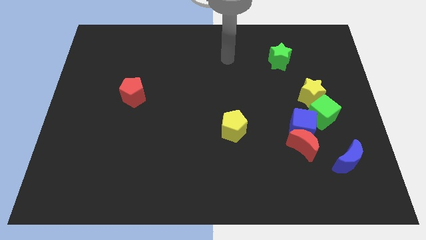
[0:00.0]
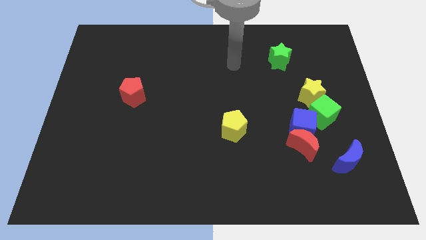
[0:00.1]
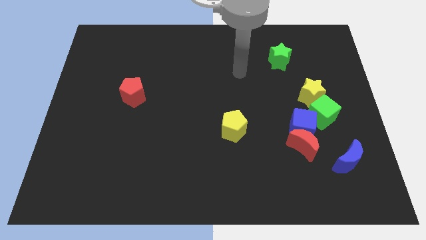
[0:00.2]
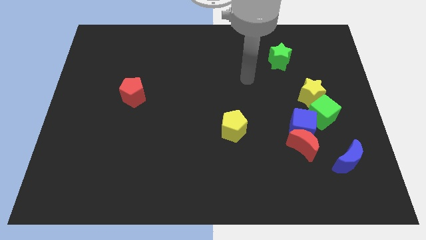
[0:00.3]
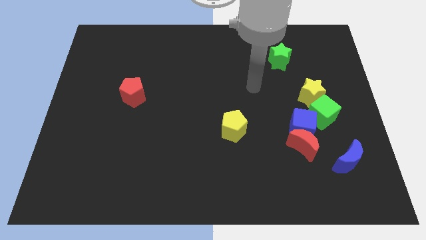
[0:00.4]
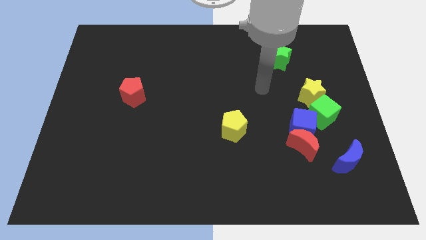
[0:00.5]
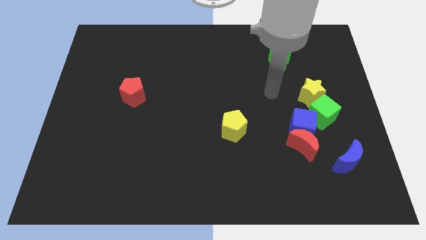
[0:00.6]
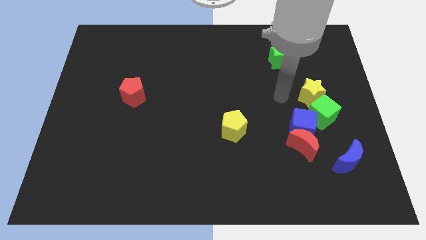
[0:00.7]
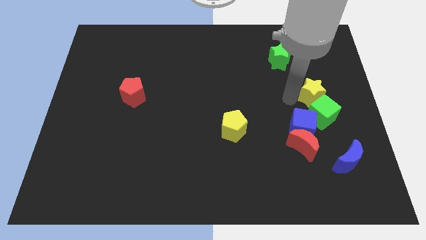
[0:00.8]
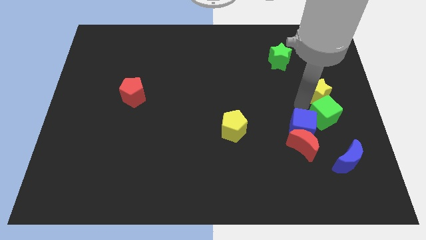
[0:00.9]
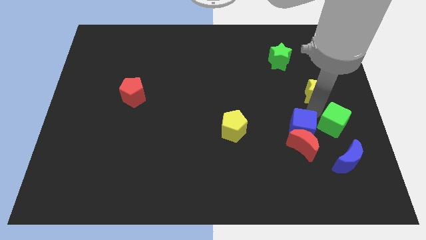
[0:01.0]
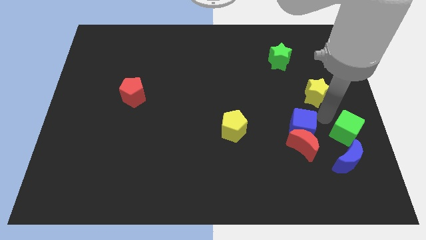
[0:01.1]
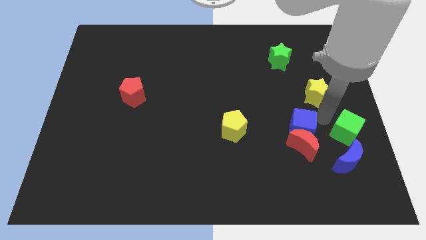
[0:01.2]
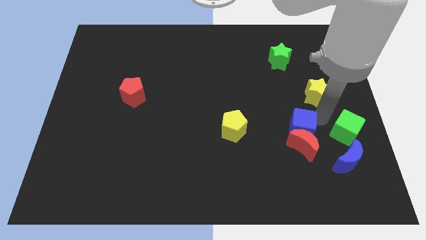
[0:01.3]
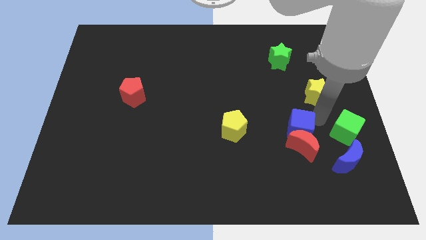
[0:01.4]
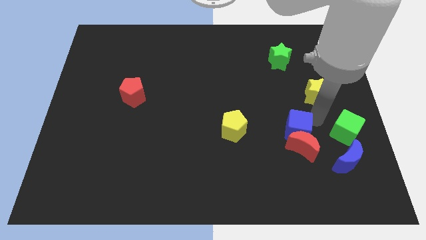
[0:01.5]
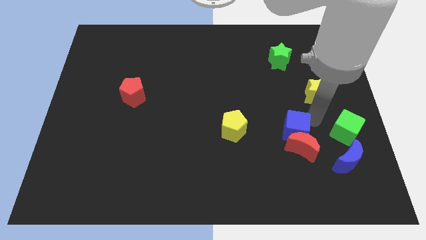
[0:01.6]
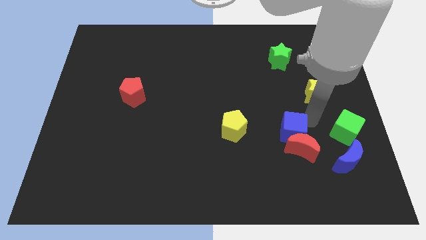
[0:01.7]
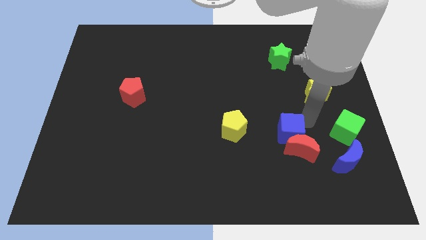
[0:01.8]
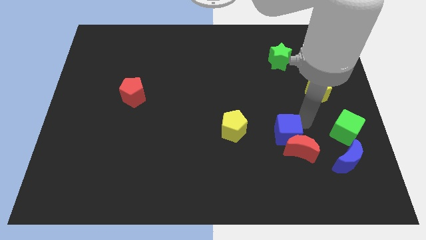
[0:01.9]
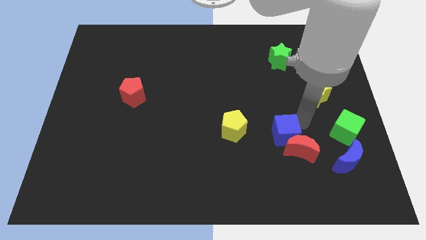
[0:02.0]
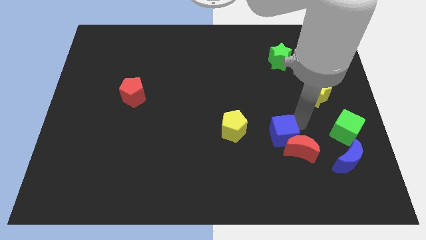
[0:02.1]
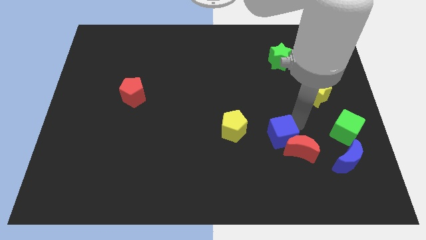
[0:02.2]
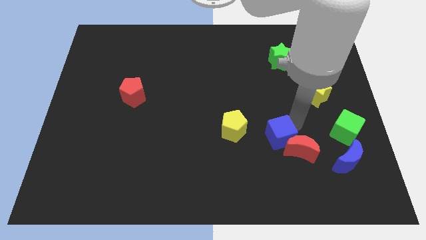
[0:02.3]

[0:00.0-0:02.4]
pull the blue cube apart from the group

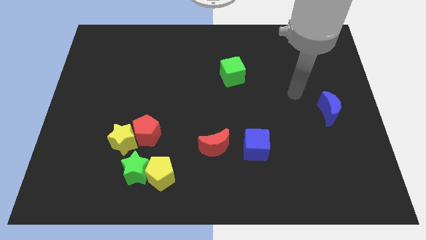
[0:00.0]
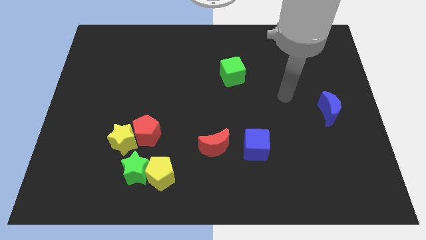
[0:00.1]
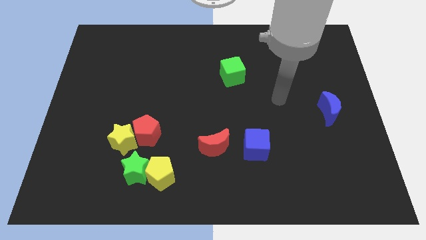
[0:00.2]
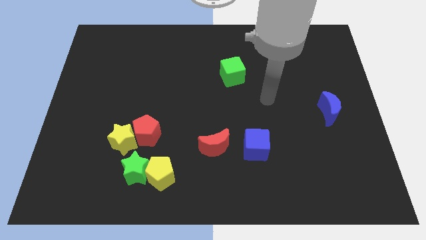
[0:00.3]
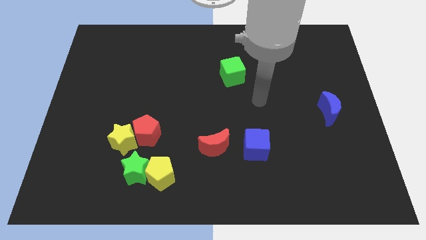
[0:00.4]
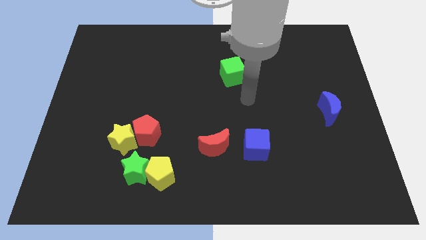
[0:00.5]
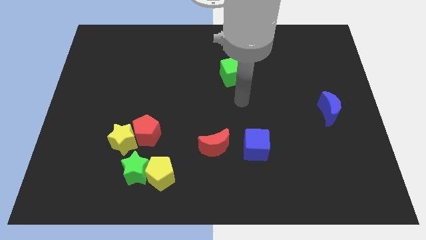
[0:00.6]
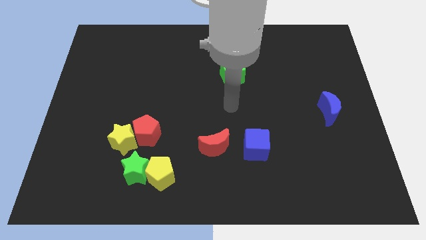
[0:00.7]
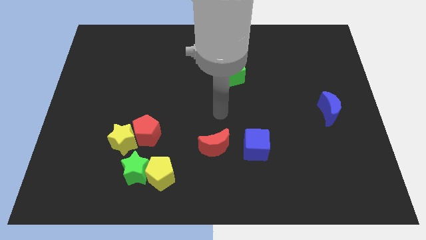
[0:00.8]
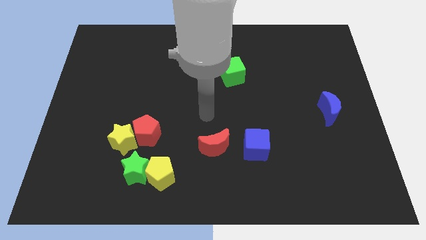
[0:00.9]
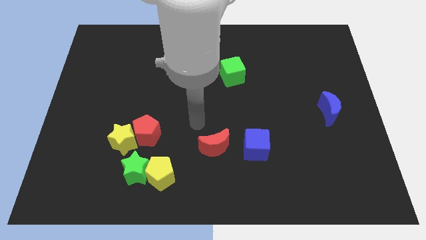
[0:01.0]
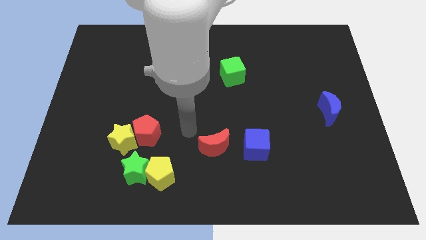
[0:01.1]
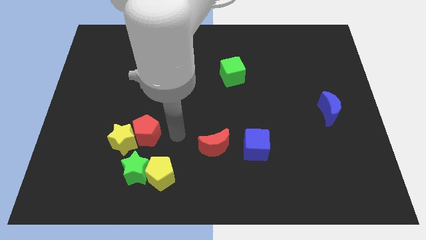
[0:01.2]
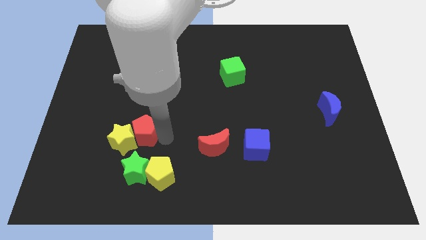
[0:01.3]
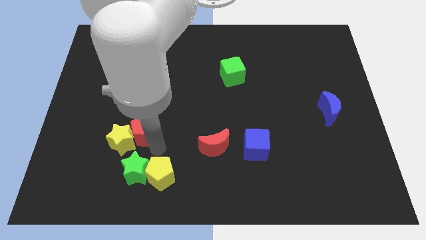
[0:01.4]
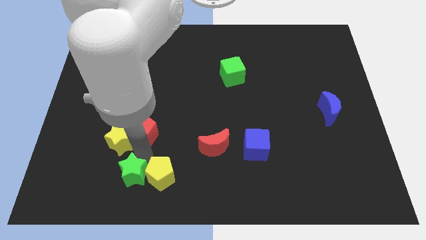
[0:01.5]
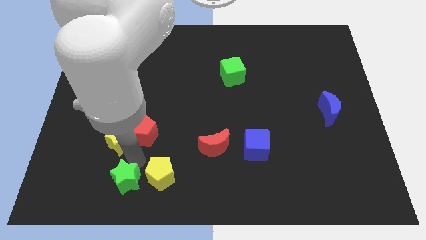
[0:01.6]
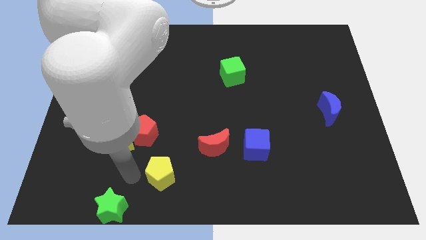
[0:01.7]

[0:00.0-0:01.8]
pull the yellow pentagon apart from the green star

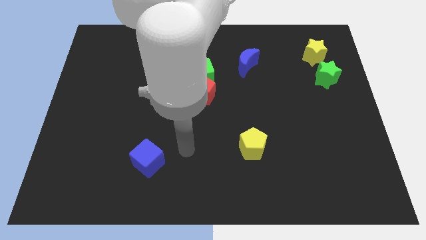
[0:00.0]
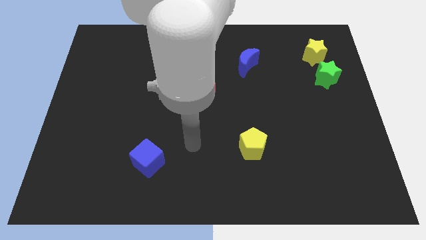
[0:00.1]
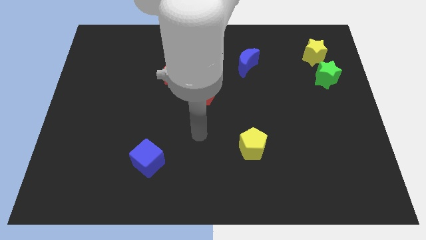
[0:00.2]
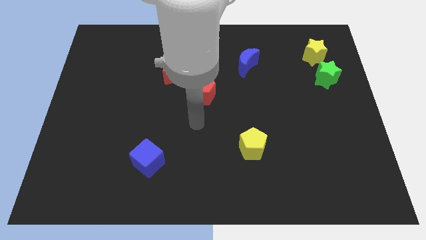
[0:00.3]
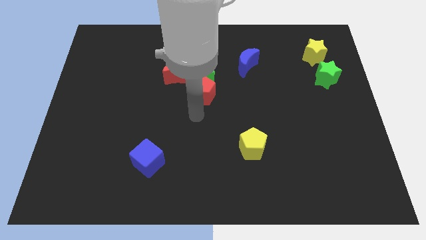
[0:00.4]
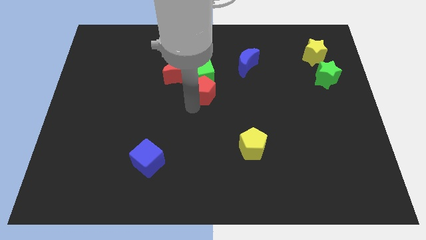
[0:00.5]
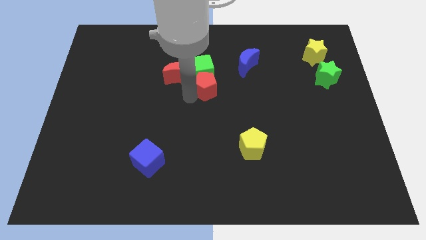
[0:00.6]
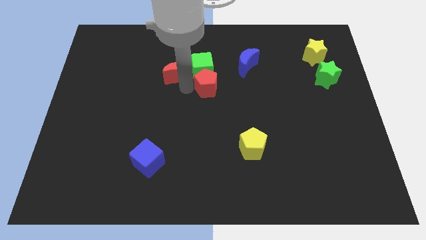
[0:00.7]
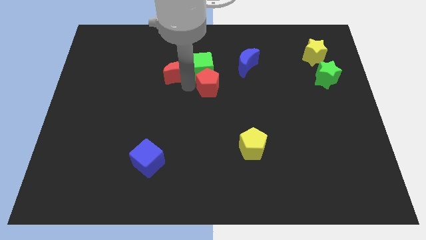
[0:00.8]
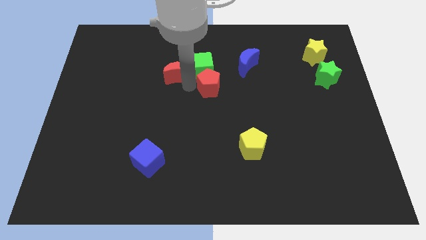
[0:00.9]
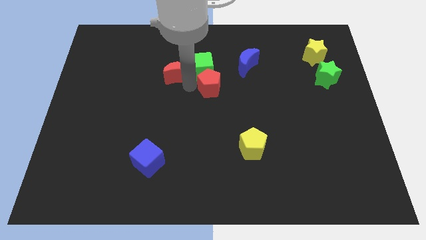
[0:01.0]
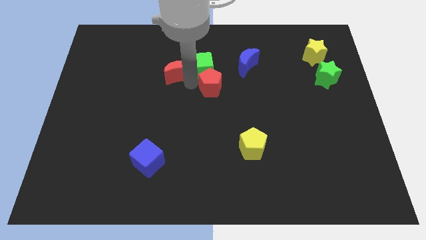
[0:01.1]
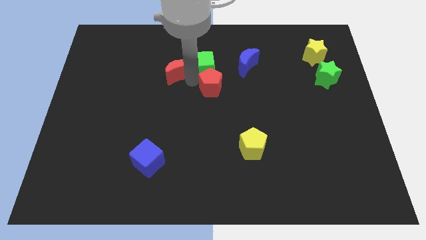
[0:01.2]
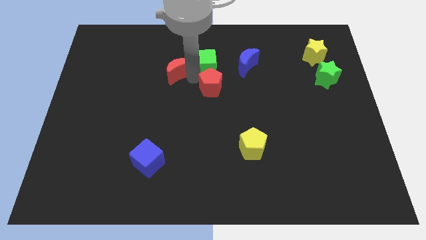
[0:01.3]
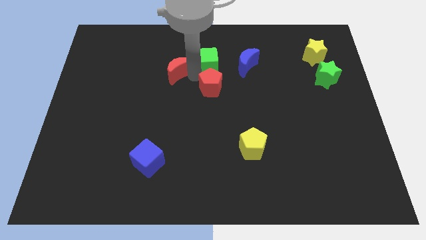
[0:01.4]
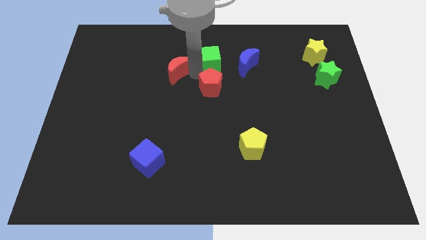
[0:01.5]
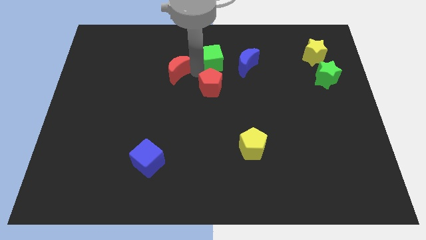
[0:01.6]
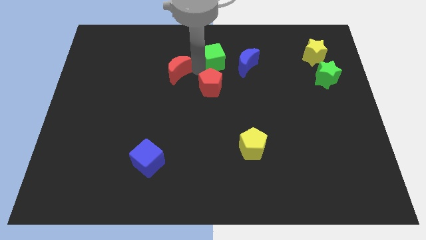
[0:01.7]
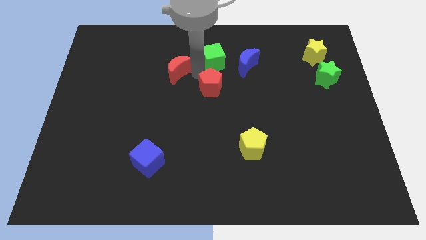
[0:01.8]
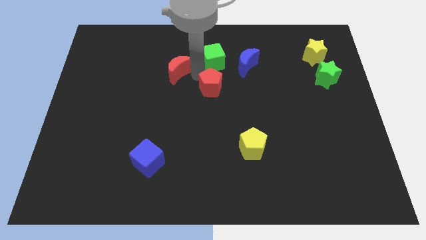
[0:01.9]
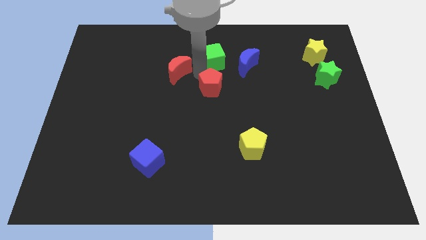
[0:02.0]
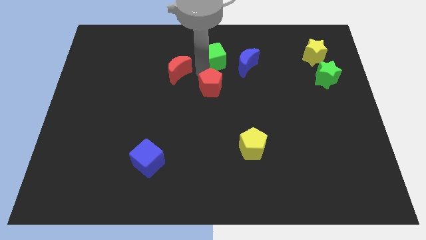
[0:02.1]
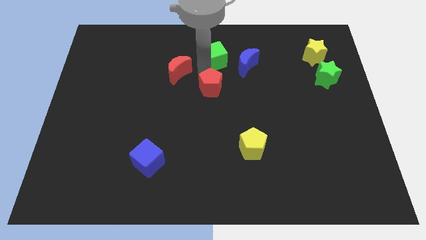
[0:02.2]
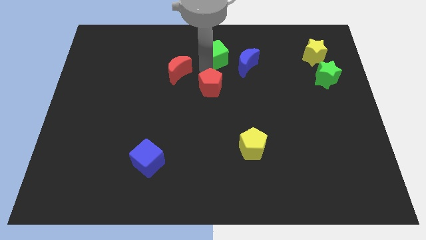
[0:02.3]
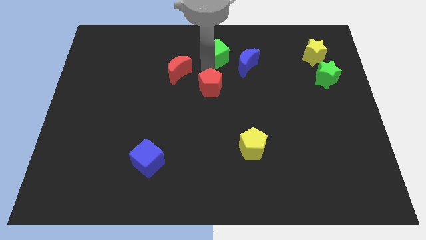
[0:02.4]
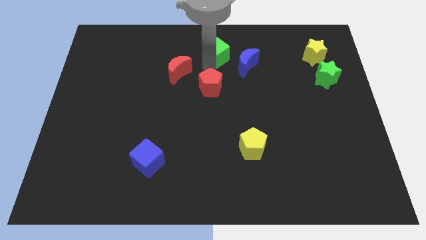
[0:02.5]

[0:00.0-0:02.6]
pull the green cube apart from the red pentagon and red moon

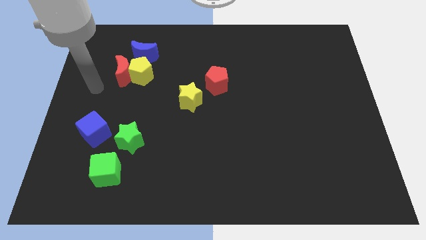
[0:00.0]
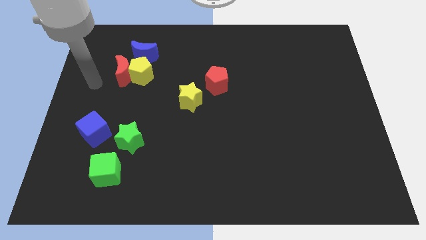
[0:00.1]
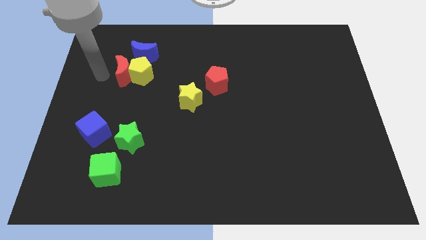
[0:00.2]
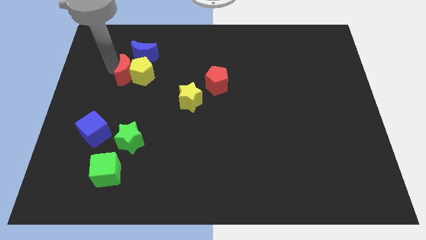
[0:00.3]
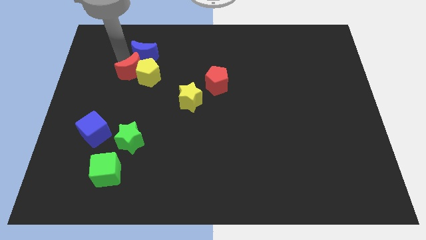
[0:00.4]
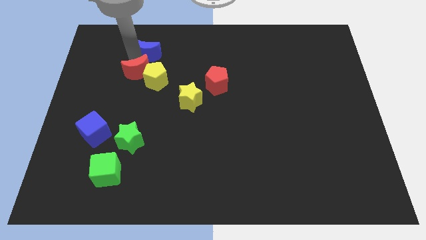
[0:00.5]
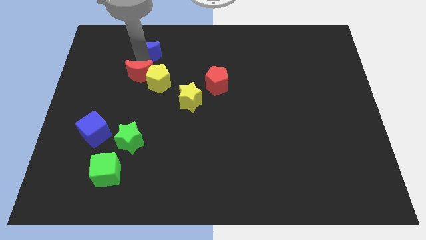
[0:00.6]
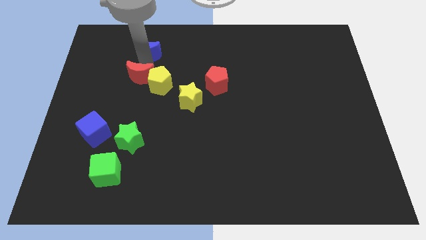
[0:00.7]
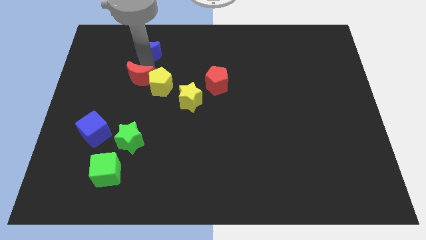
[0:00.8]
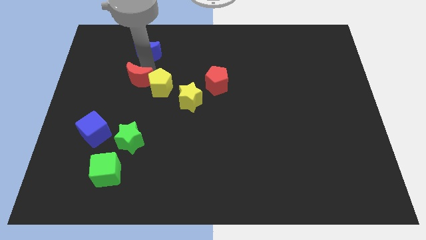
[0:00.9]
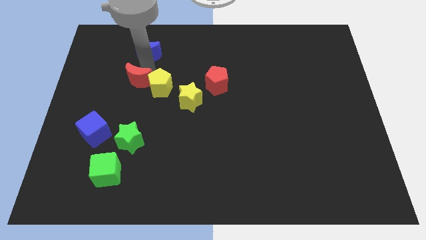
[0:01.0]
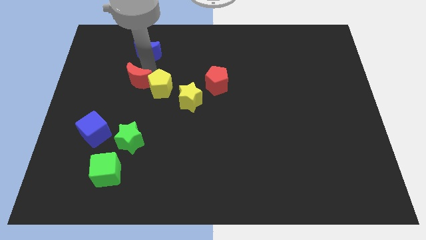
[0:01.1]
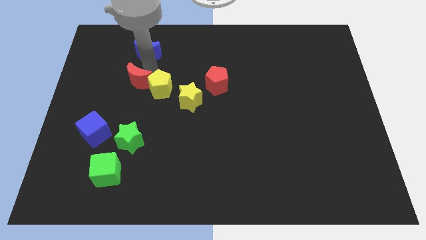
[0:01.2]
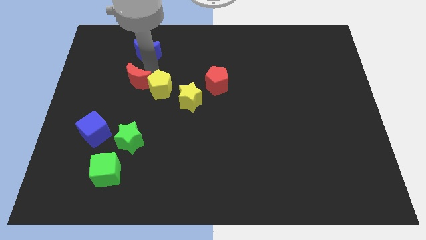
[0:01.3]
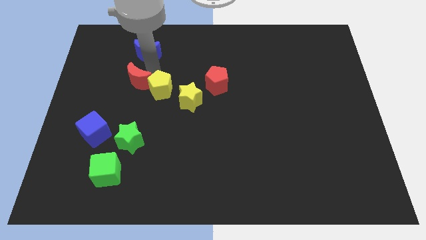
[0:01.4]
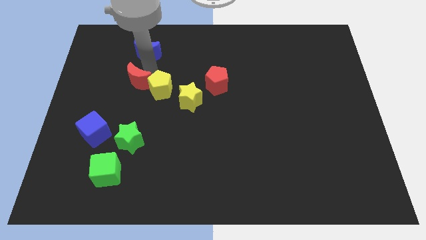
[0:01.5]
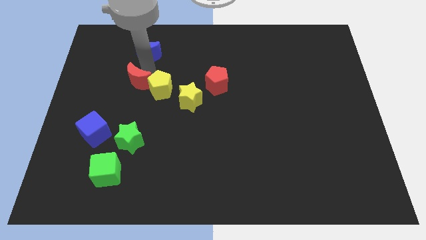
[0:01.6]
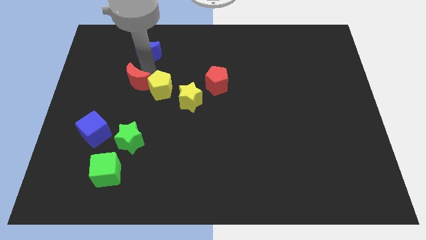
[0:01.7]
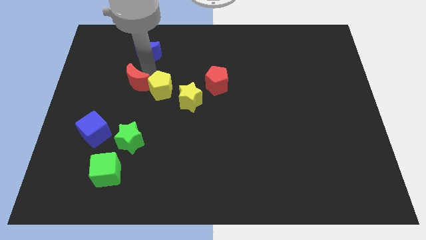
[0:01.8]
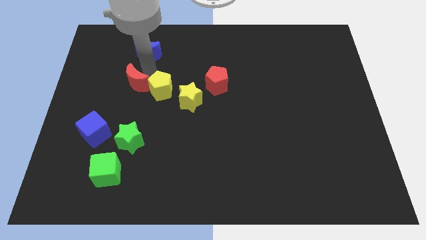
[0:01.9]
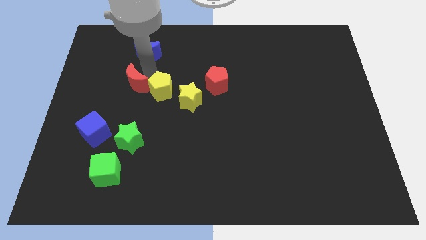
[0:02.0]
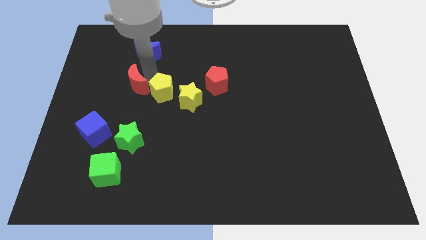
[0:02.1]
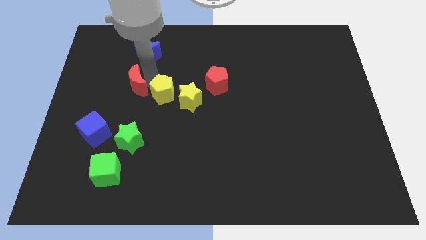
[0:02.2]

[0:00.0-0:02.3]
pull the yellow pentagon apart from the red moon and blue moon

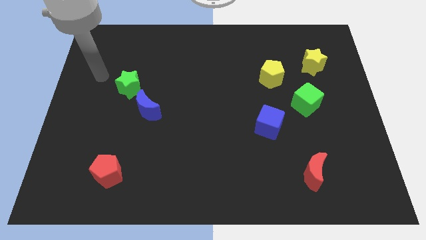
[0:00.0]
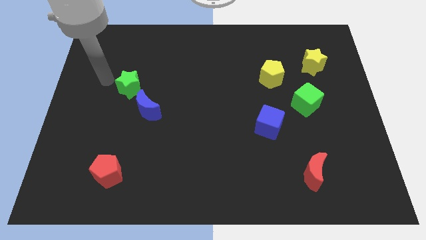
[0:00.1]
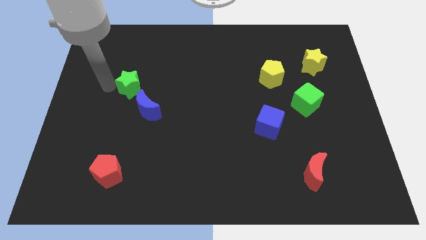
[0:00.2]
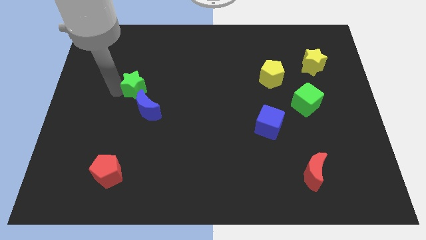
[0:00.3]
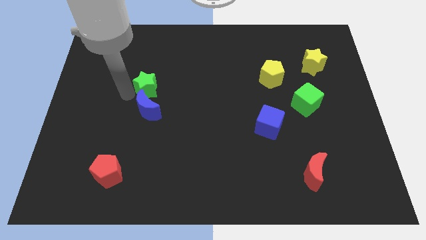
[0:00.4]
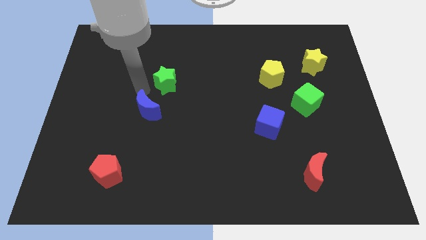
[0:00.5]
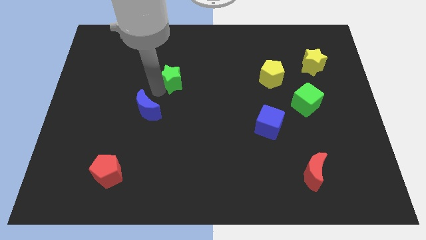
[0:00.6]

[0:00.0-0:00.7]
separate the blue moon from the green star
